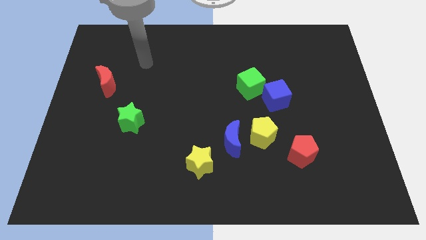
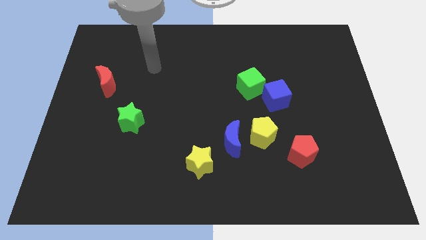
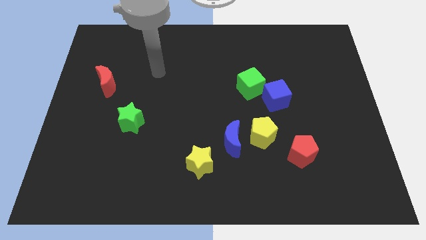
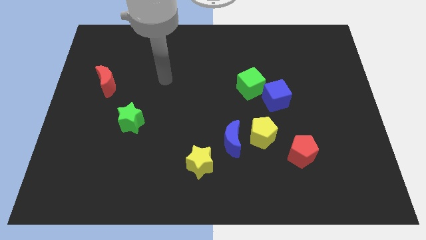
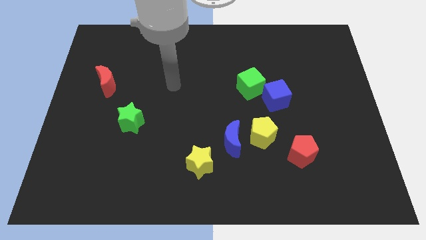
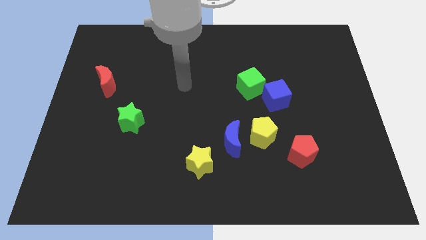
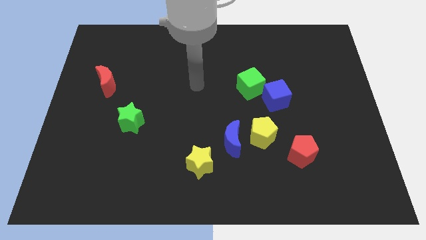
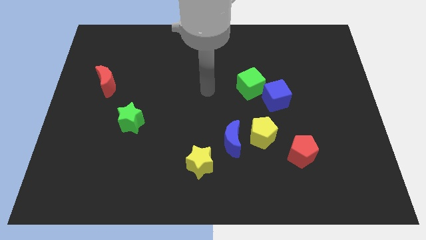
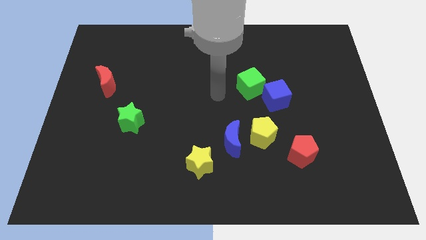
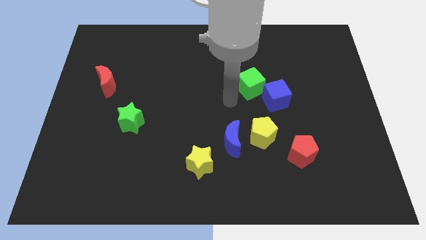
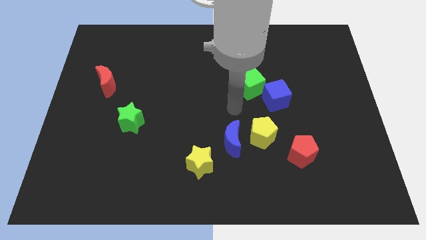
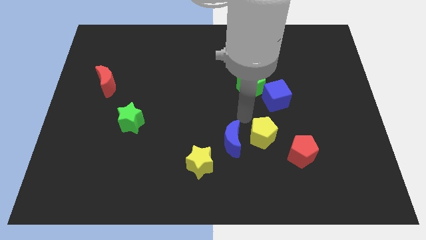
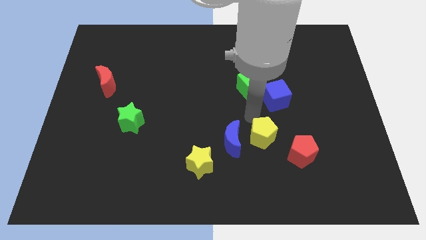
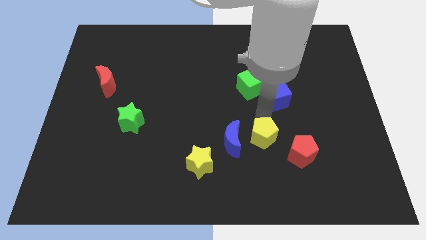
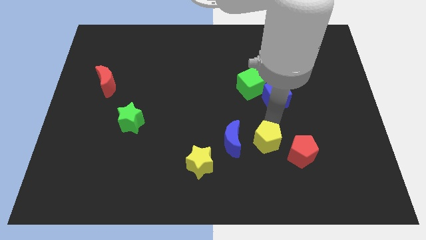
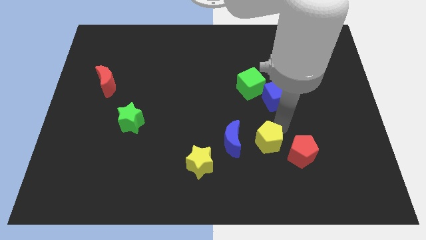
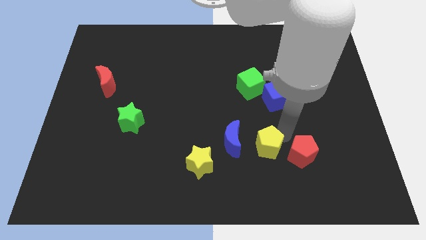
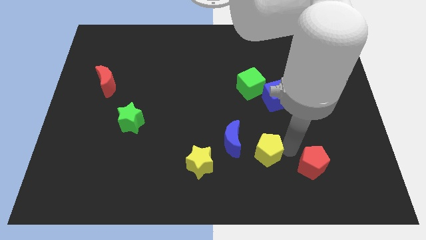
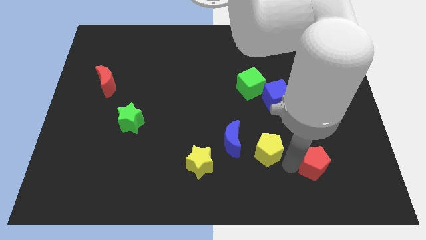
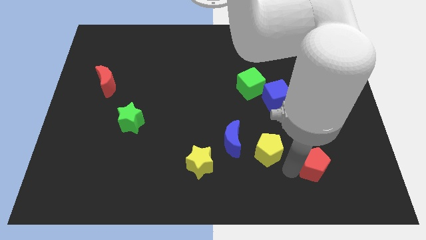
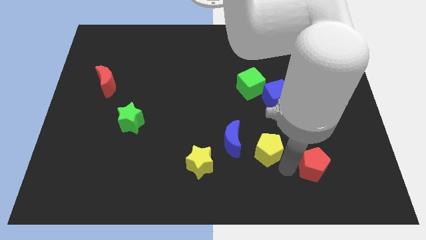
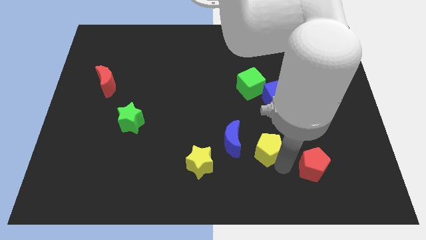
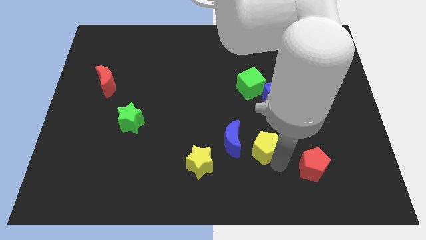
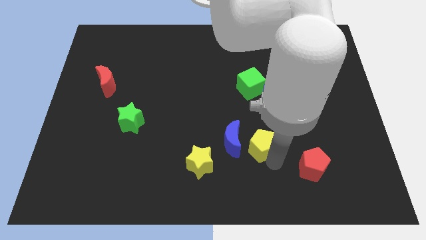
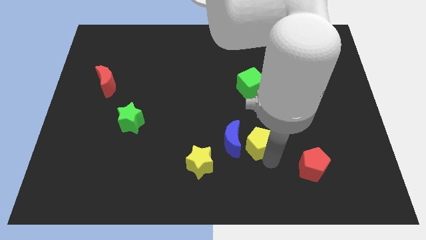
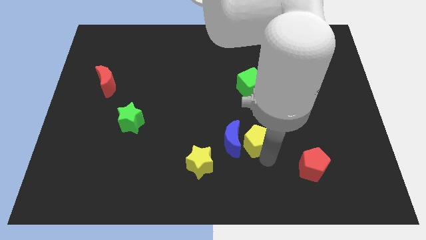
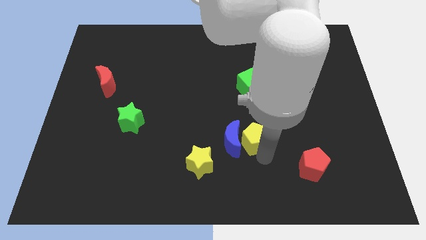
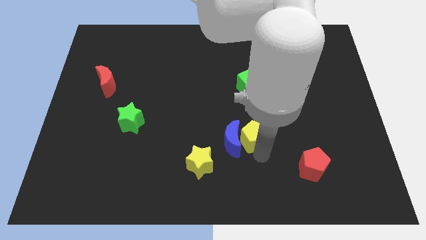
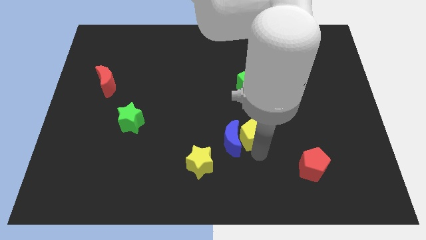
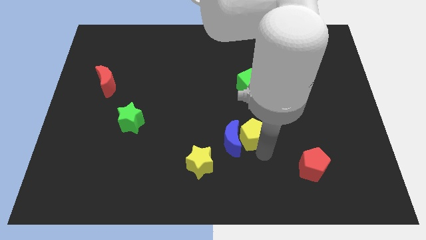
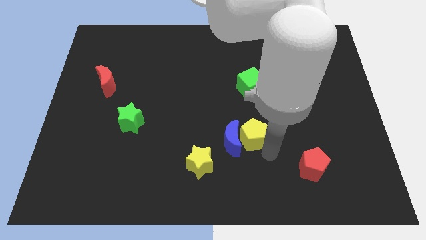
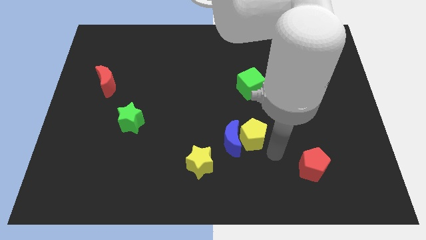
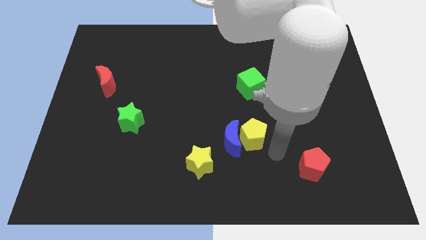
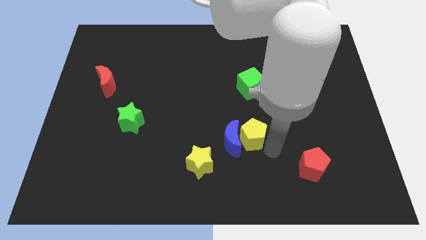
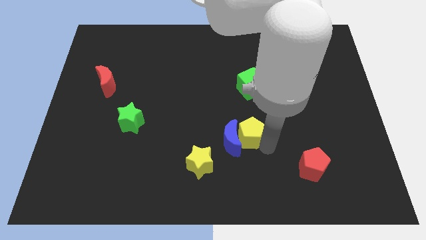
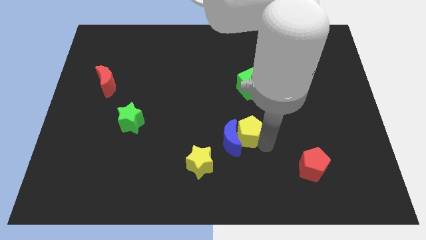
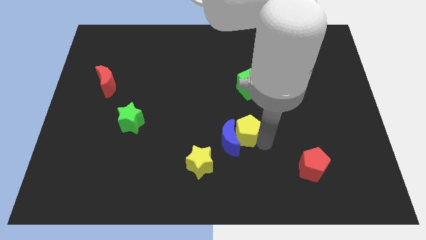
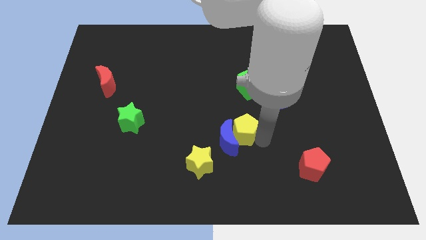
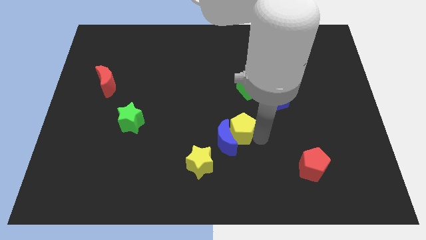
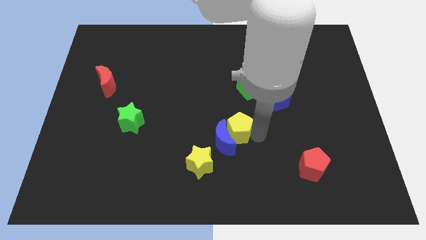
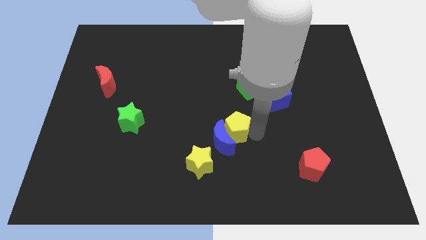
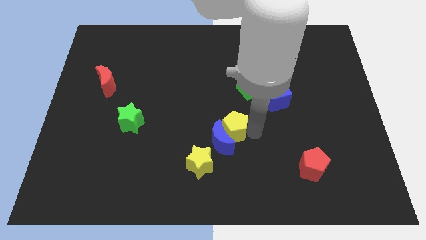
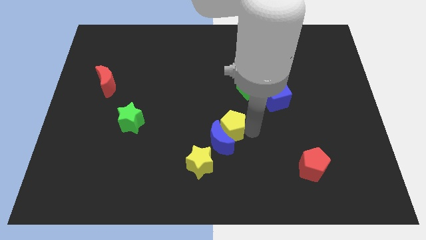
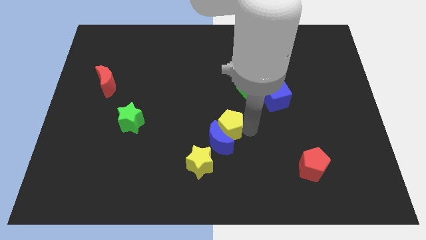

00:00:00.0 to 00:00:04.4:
slide the yellow pentagon to the left a little bit

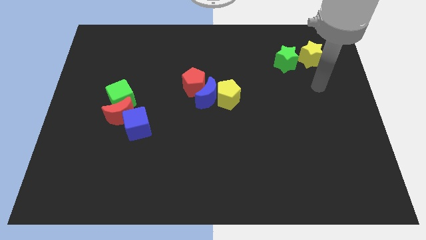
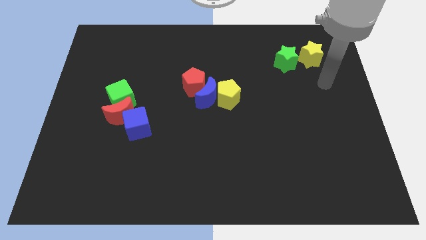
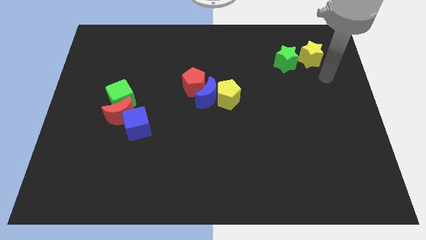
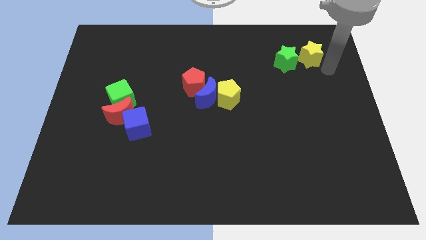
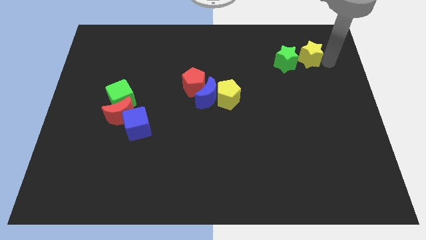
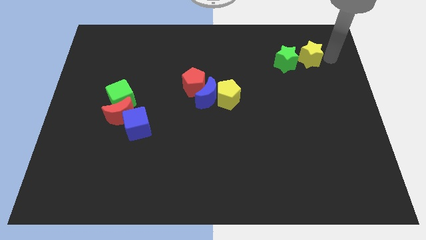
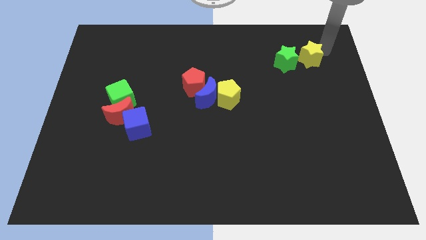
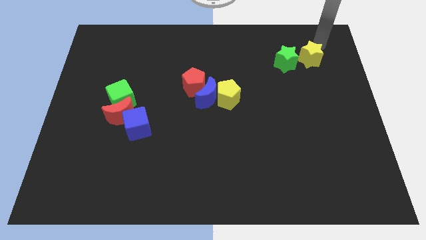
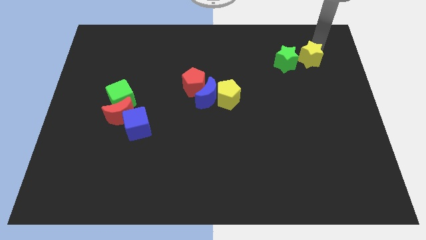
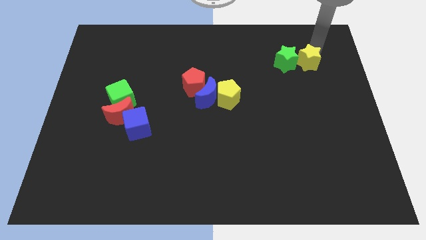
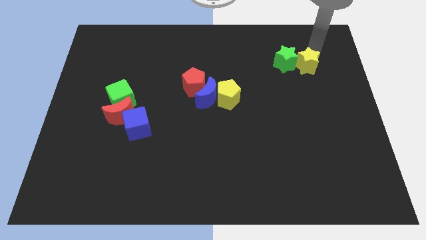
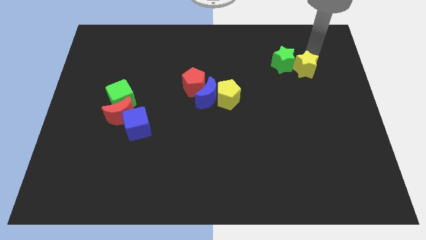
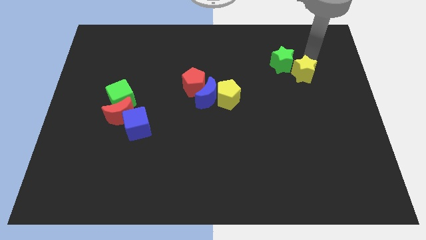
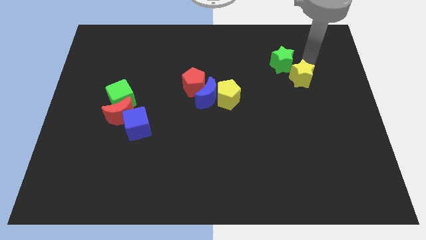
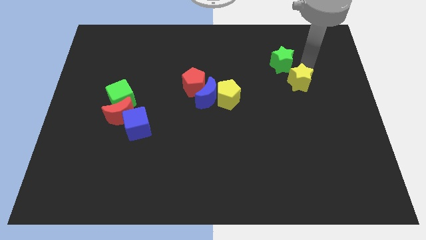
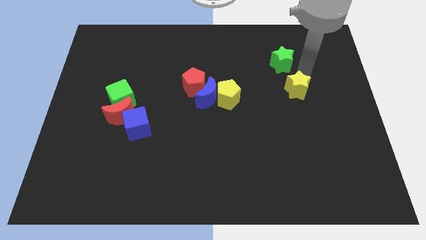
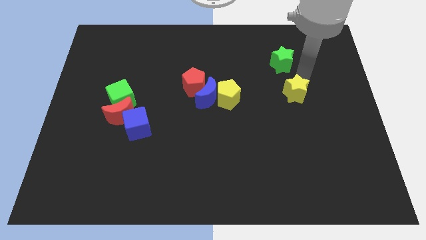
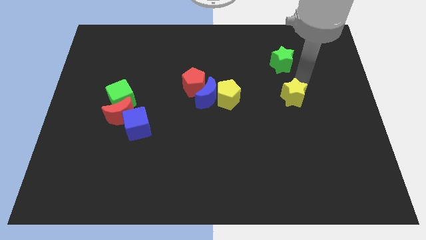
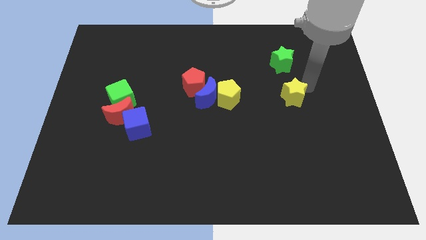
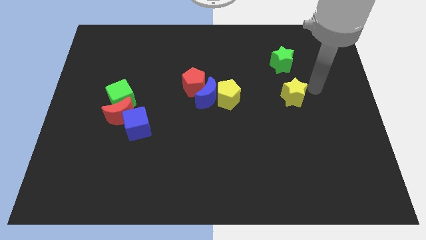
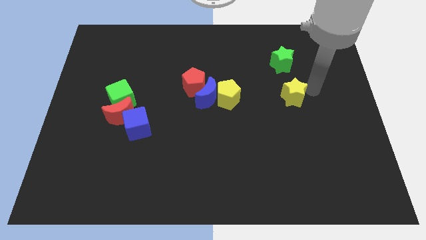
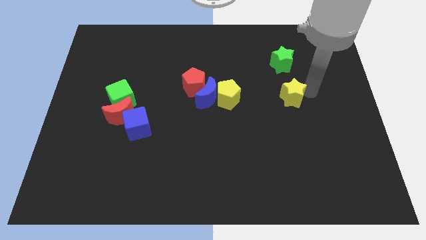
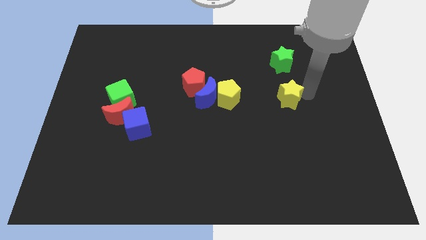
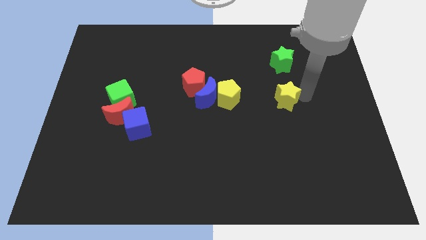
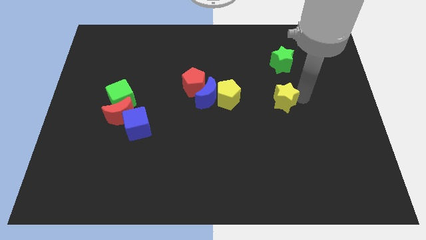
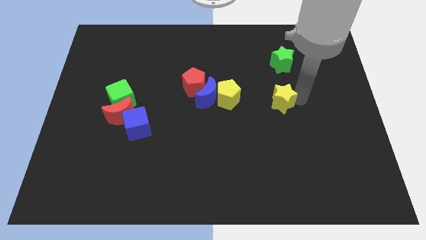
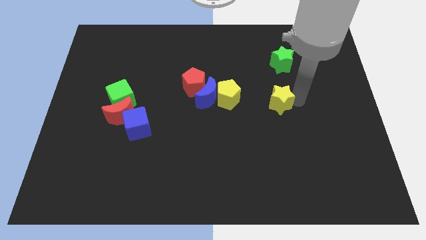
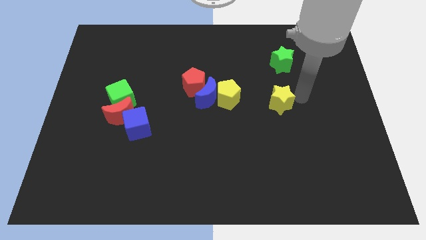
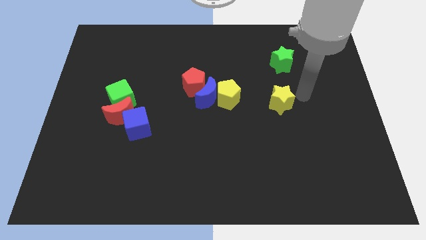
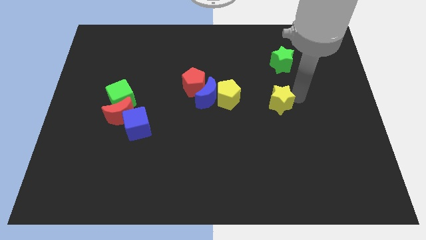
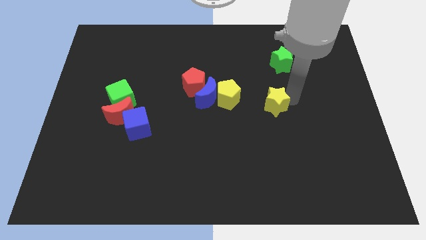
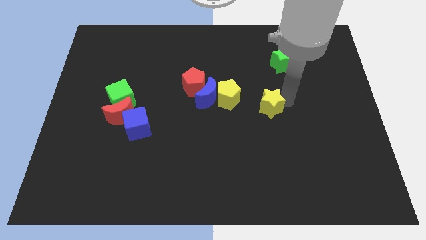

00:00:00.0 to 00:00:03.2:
push the yellow star downwards and left

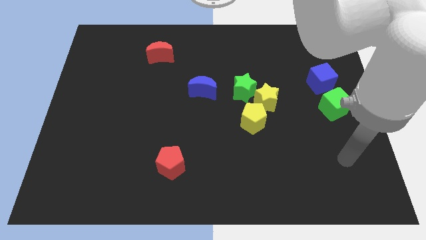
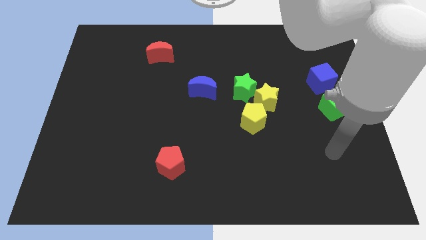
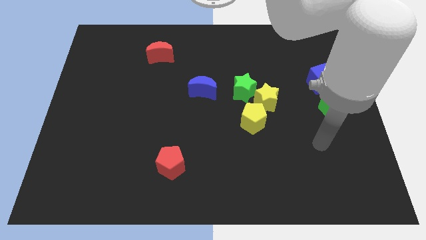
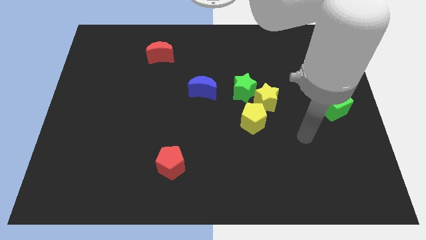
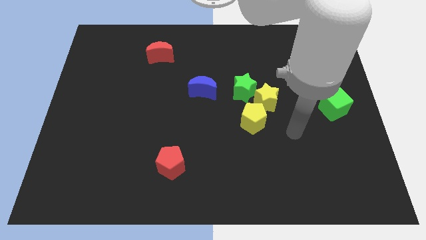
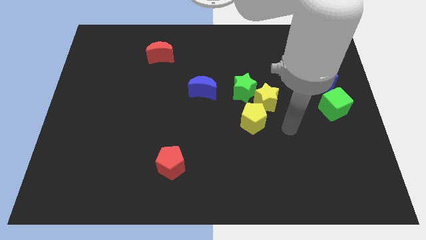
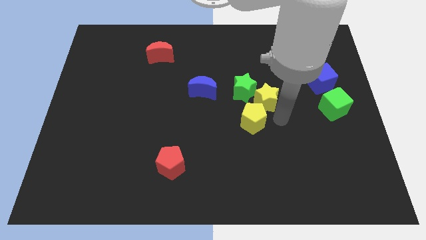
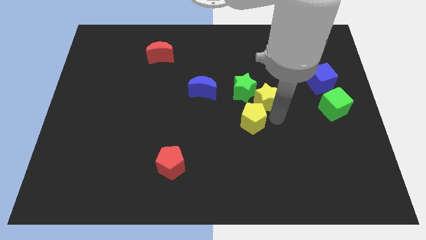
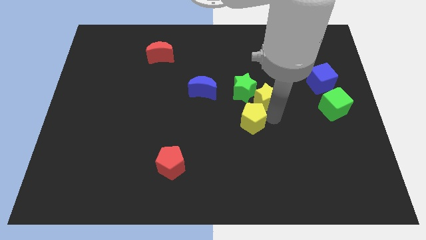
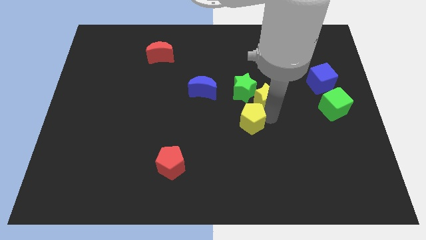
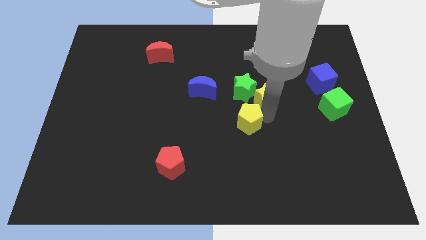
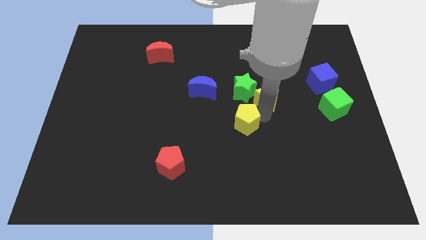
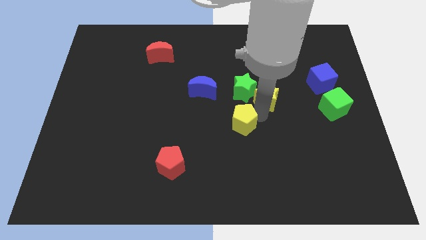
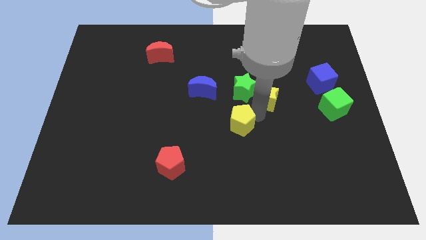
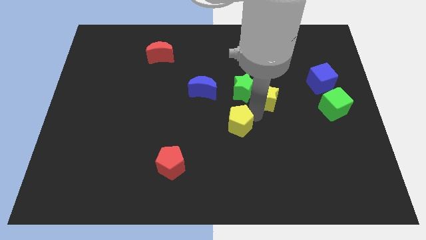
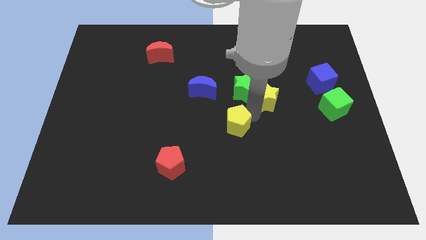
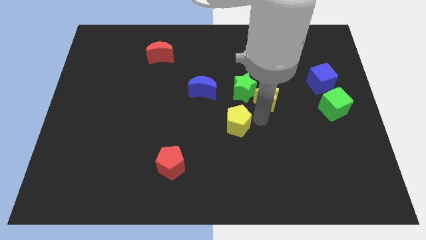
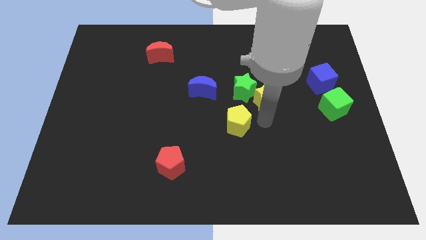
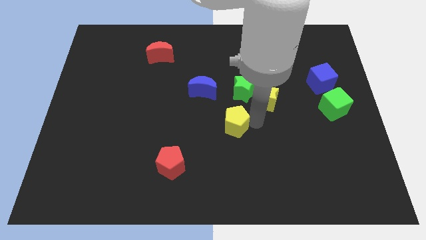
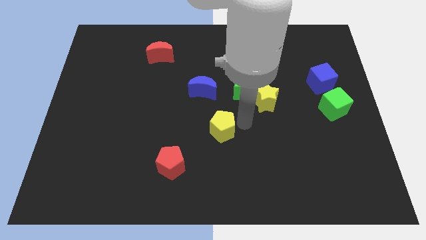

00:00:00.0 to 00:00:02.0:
slightly push the yellow pentagon left
